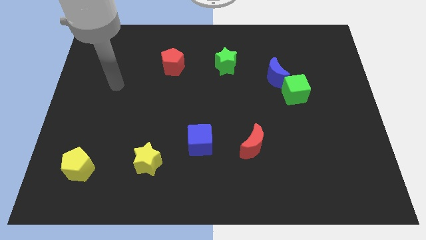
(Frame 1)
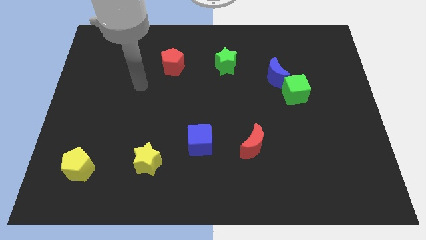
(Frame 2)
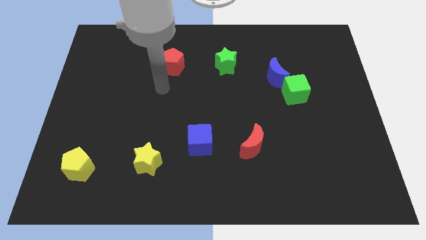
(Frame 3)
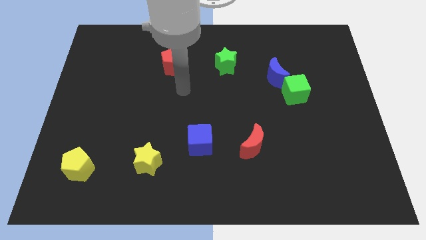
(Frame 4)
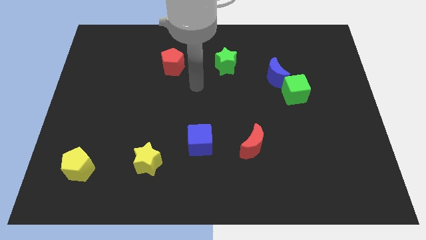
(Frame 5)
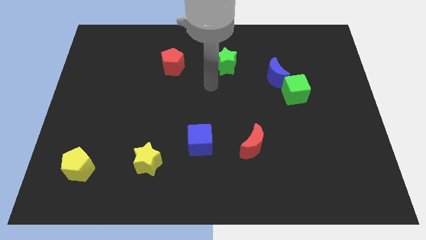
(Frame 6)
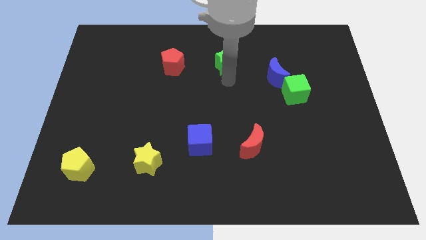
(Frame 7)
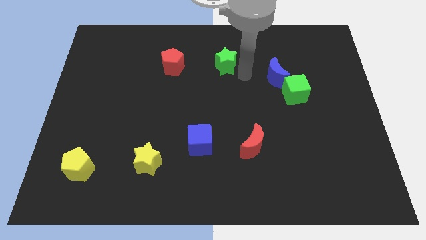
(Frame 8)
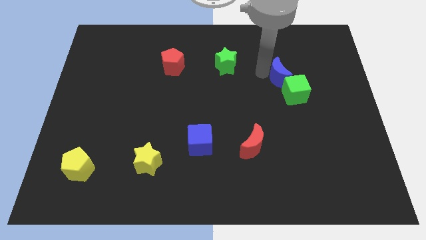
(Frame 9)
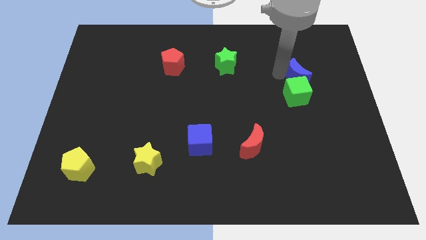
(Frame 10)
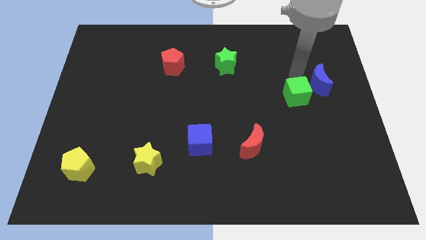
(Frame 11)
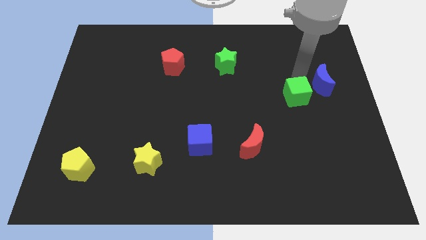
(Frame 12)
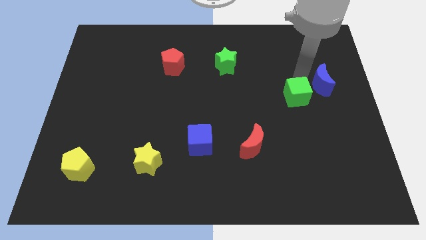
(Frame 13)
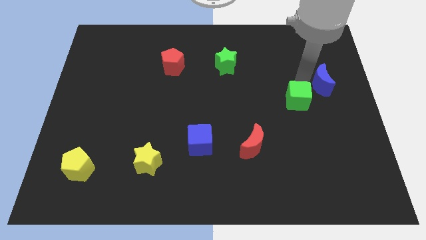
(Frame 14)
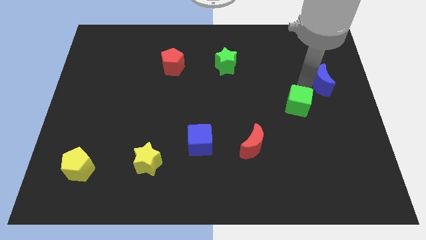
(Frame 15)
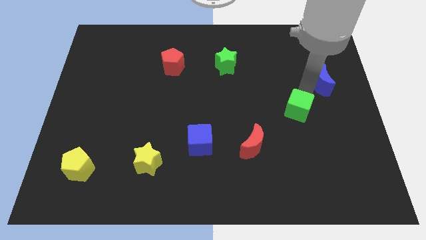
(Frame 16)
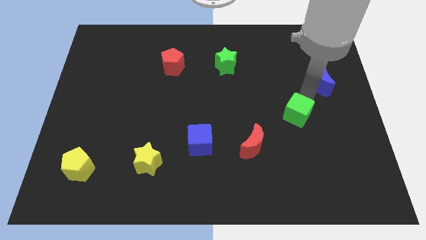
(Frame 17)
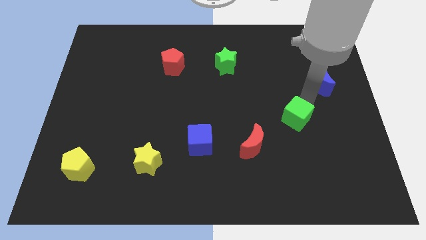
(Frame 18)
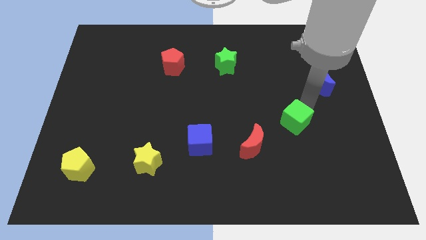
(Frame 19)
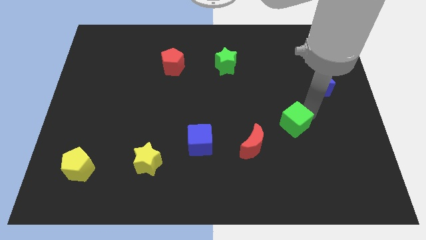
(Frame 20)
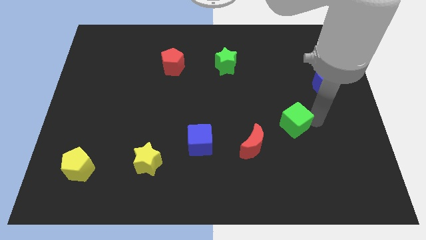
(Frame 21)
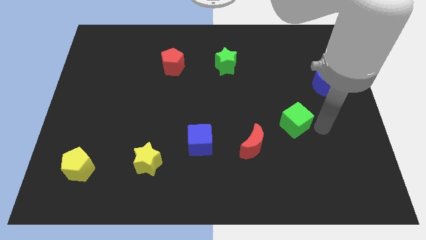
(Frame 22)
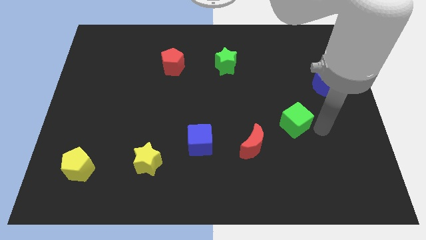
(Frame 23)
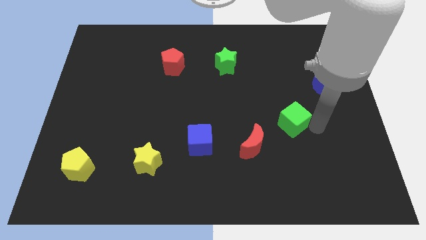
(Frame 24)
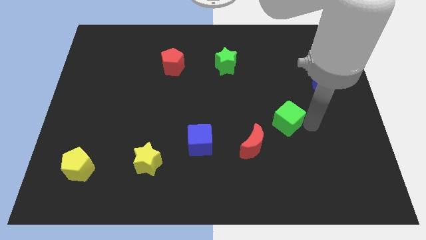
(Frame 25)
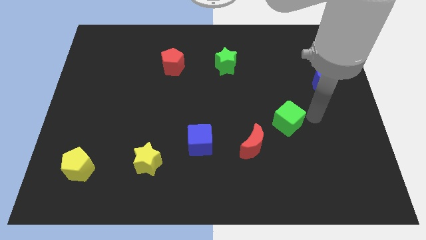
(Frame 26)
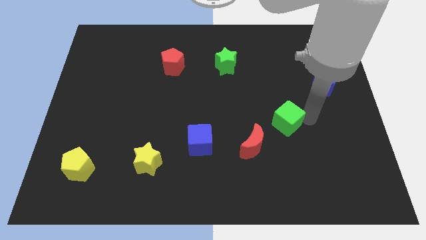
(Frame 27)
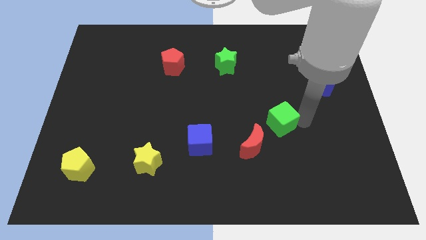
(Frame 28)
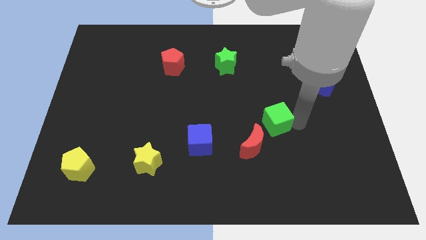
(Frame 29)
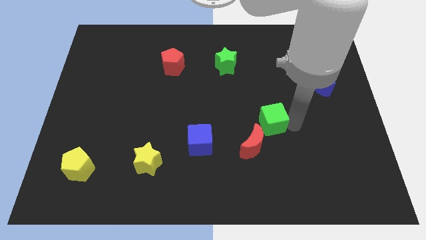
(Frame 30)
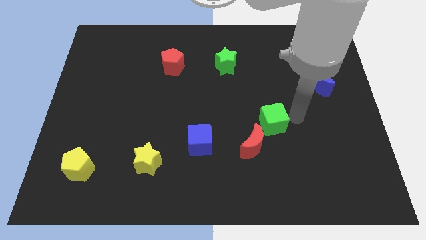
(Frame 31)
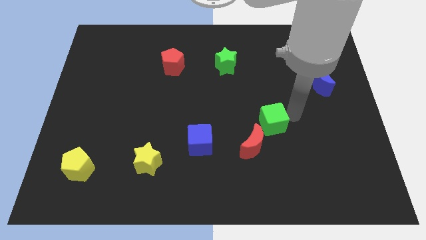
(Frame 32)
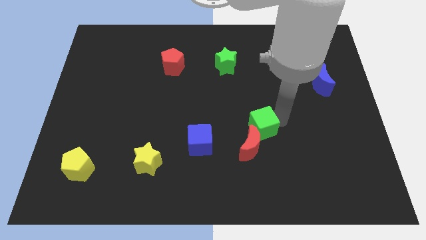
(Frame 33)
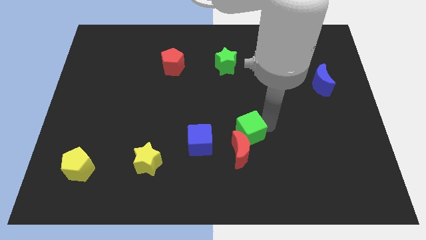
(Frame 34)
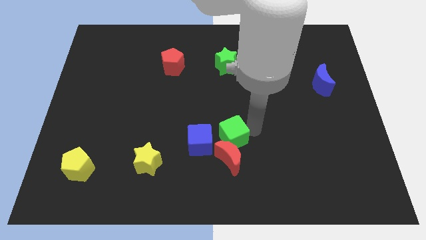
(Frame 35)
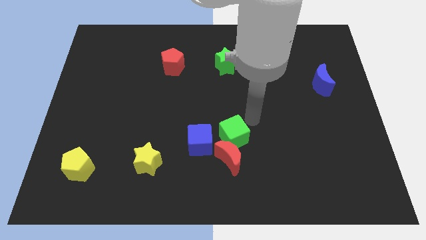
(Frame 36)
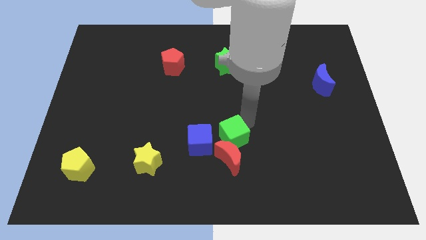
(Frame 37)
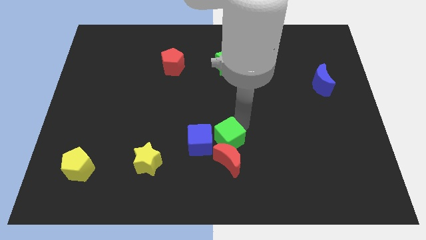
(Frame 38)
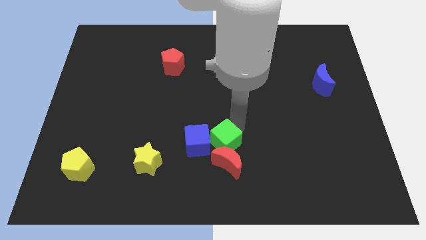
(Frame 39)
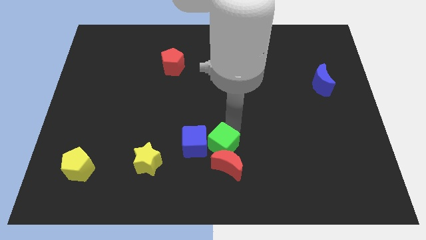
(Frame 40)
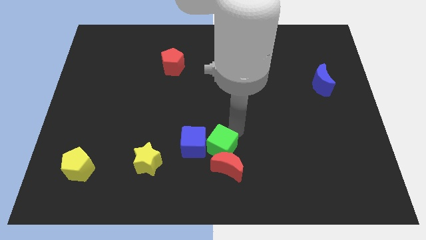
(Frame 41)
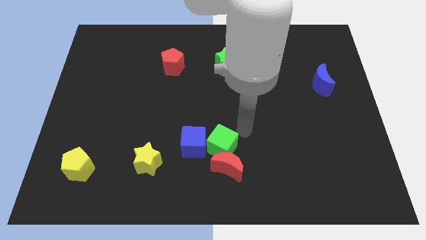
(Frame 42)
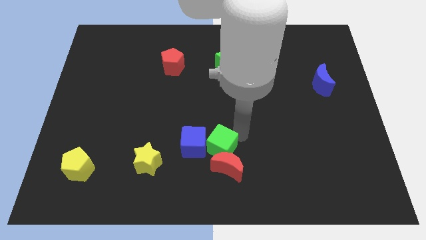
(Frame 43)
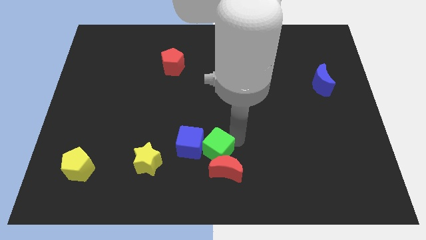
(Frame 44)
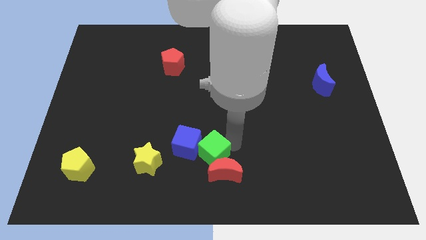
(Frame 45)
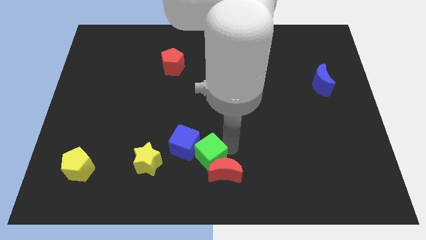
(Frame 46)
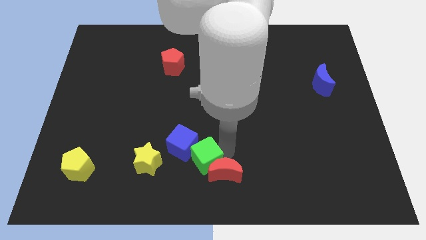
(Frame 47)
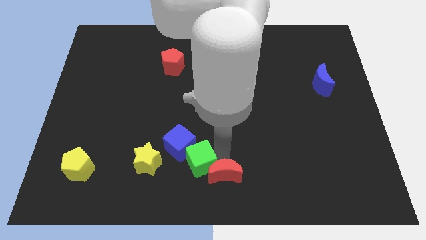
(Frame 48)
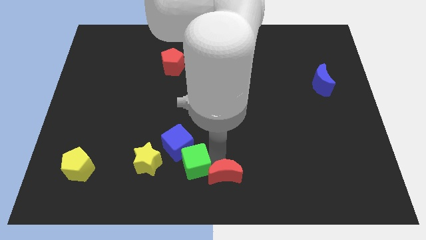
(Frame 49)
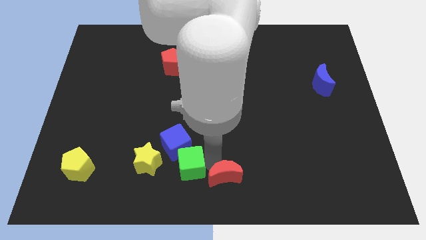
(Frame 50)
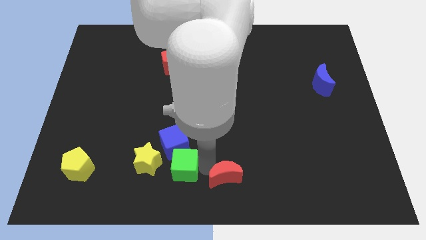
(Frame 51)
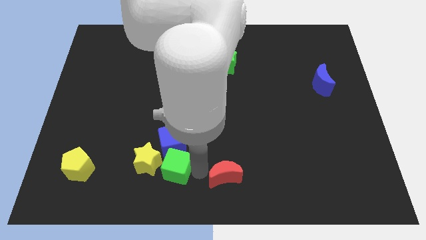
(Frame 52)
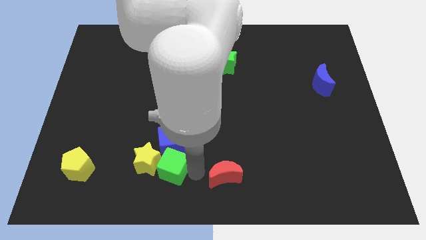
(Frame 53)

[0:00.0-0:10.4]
put the green cube next to the yellow star

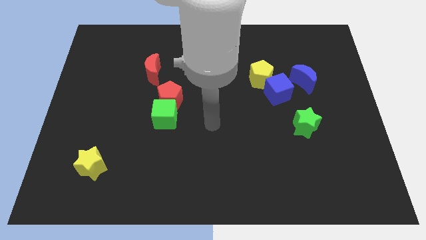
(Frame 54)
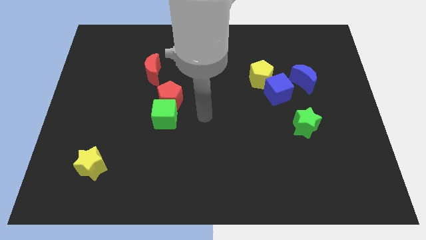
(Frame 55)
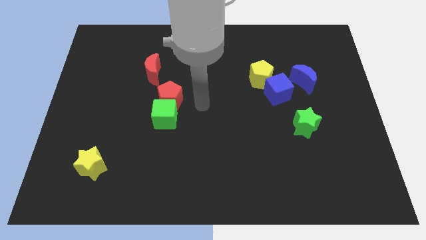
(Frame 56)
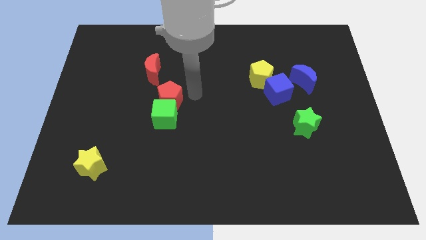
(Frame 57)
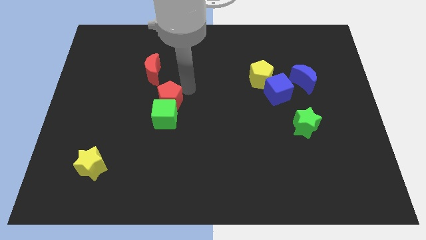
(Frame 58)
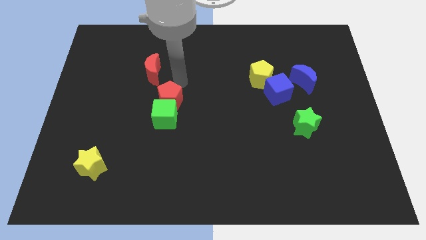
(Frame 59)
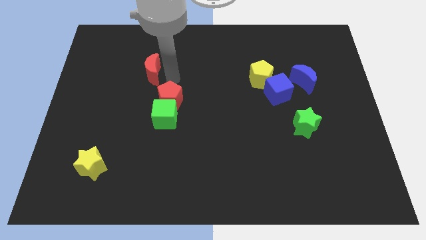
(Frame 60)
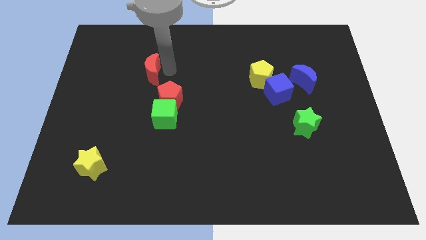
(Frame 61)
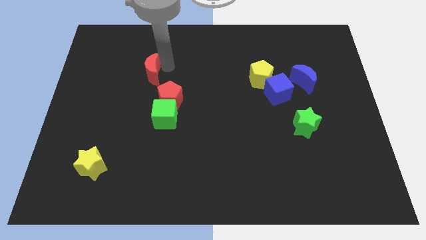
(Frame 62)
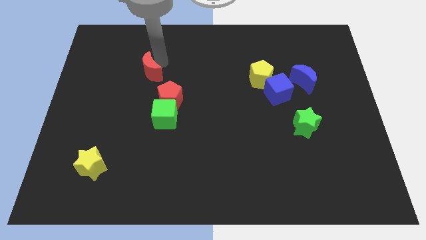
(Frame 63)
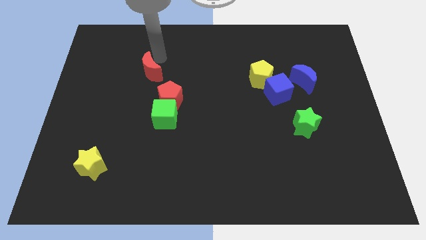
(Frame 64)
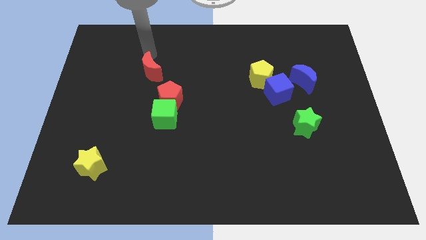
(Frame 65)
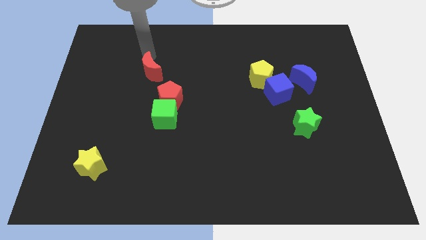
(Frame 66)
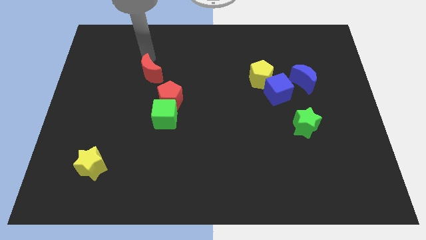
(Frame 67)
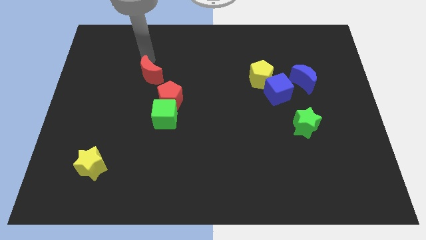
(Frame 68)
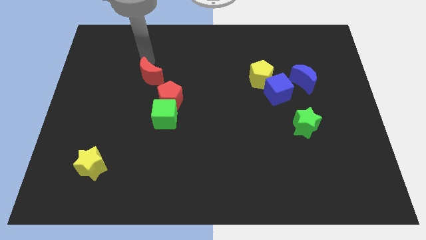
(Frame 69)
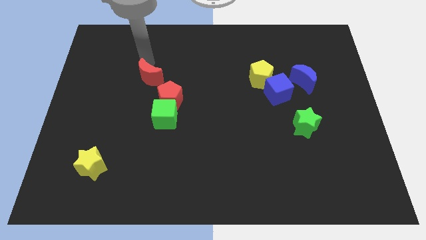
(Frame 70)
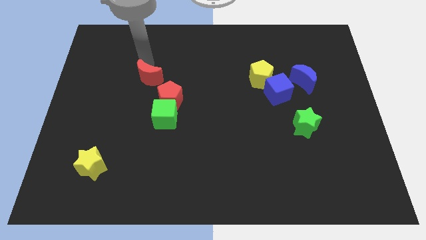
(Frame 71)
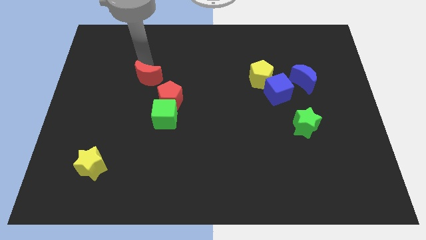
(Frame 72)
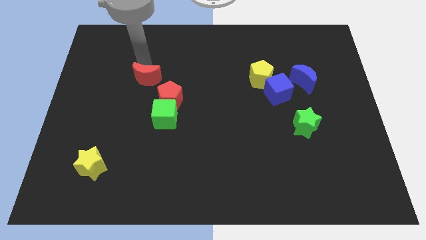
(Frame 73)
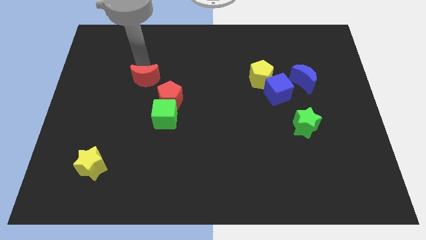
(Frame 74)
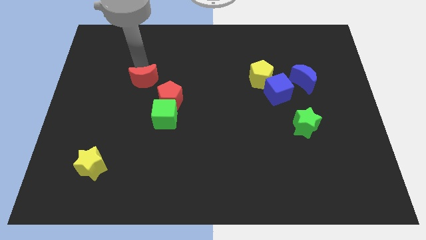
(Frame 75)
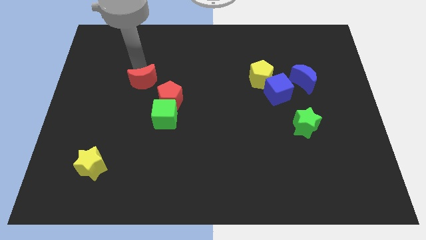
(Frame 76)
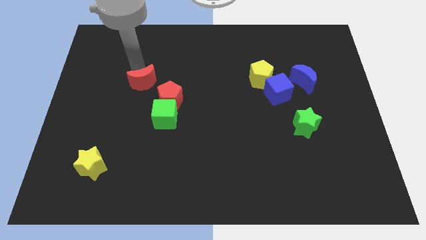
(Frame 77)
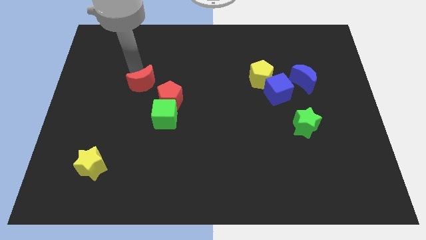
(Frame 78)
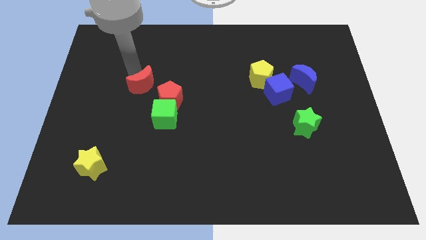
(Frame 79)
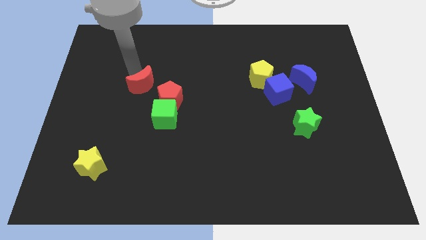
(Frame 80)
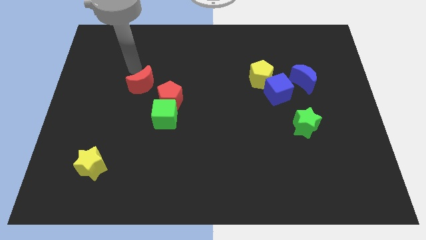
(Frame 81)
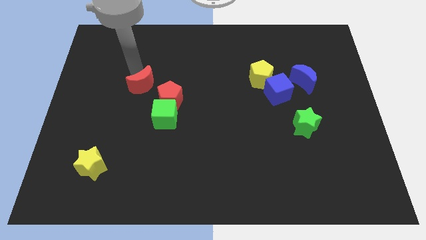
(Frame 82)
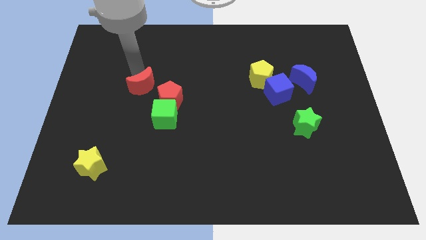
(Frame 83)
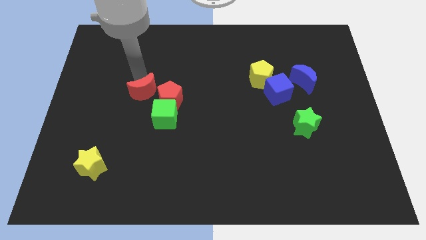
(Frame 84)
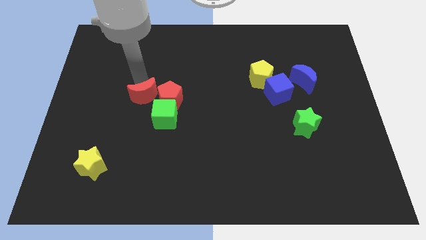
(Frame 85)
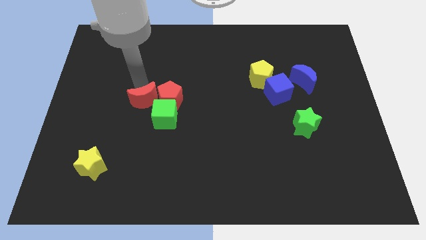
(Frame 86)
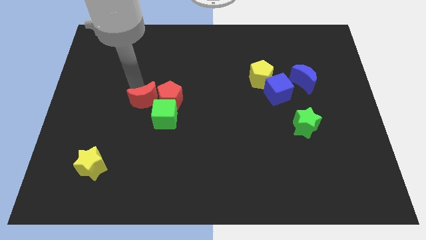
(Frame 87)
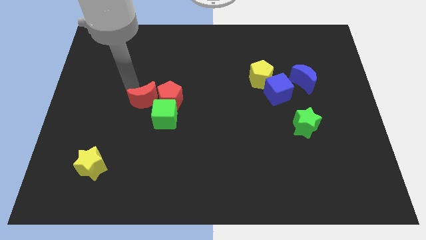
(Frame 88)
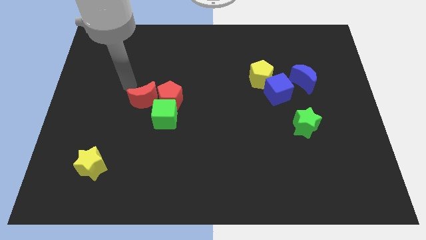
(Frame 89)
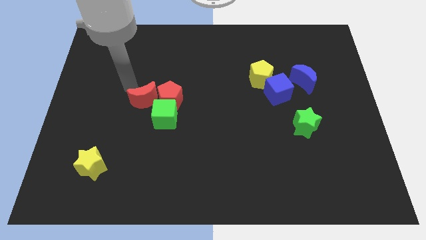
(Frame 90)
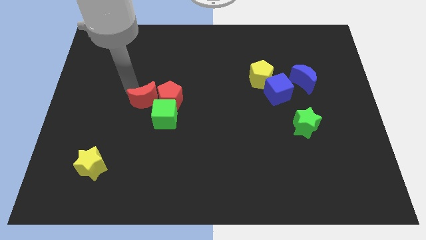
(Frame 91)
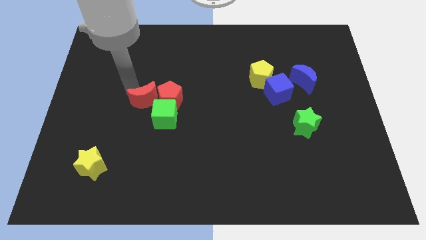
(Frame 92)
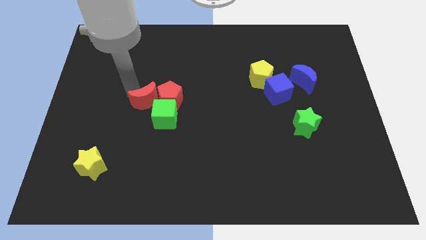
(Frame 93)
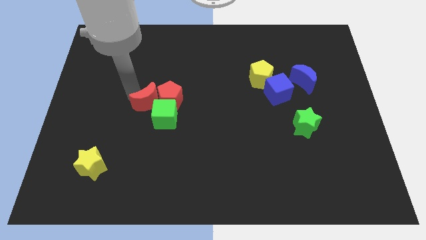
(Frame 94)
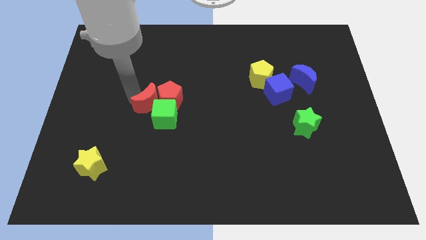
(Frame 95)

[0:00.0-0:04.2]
move the red moon close to the green cube
